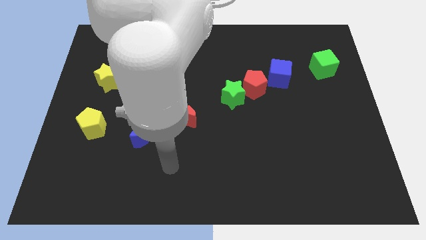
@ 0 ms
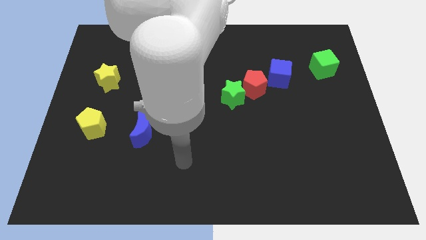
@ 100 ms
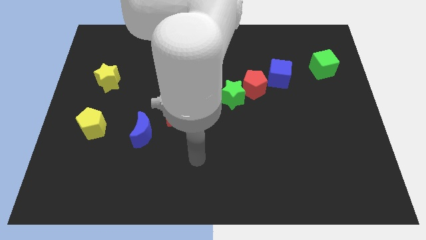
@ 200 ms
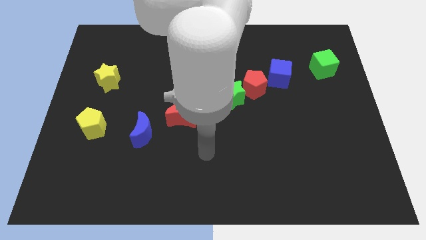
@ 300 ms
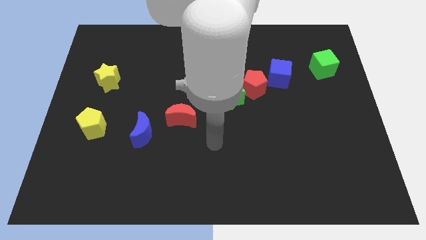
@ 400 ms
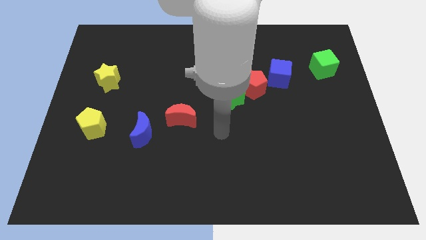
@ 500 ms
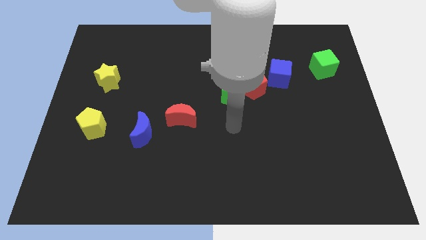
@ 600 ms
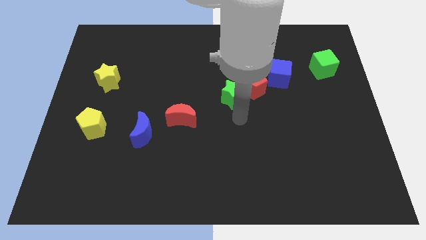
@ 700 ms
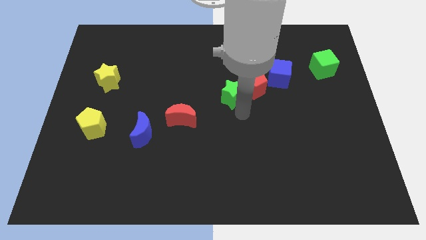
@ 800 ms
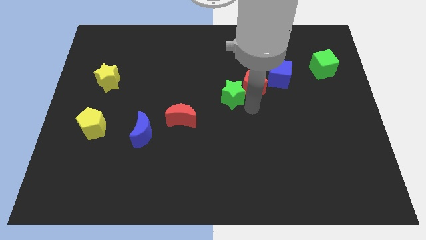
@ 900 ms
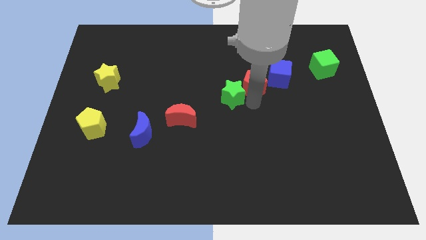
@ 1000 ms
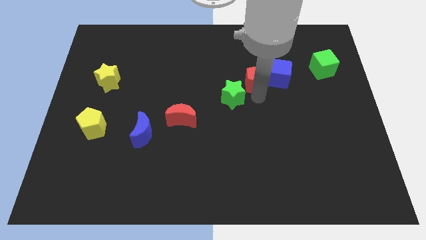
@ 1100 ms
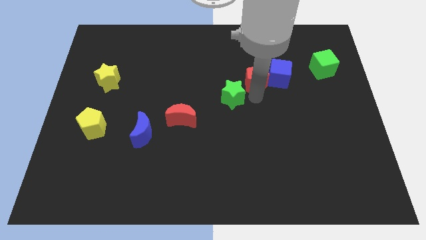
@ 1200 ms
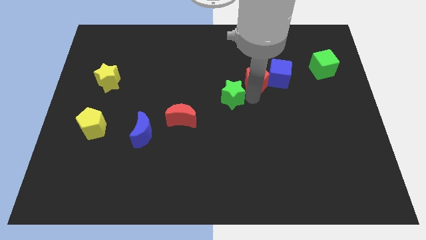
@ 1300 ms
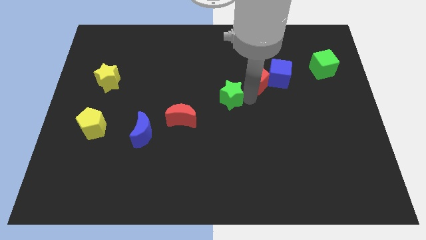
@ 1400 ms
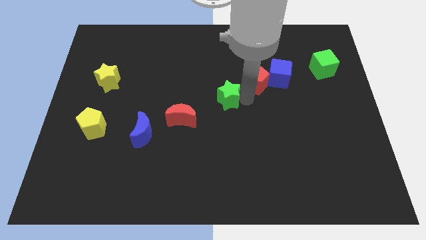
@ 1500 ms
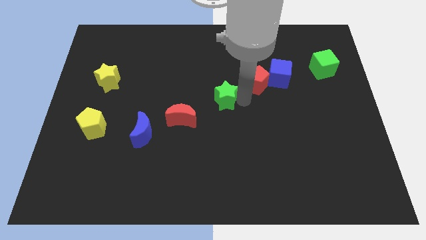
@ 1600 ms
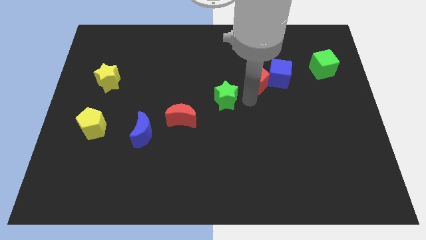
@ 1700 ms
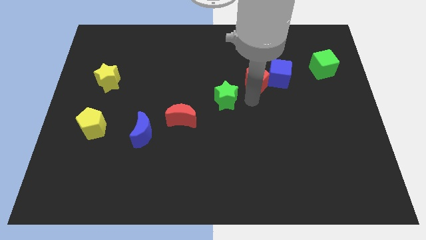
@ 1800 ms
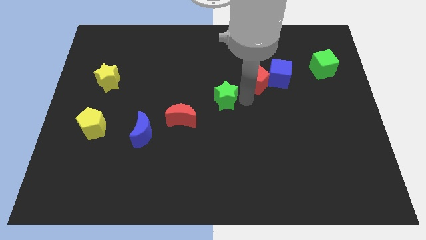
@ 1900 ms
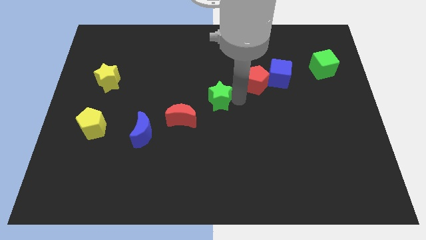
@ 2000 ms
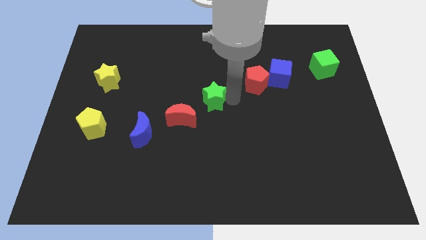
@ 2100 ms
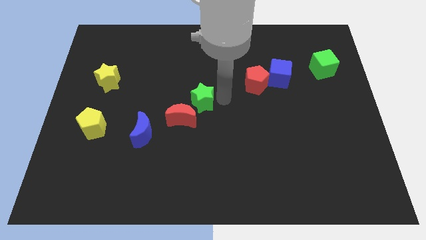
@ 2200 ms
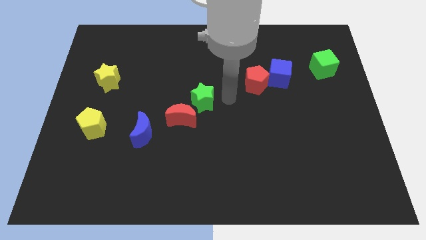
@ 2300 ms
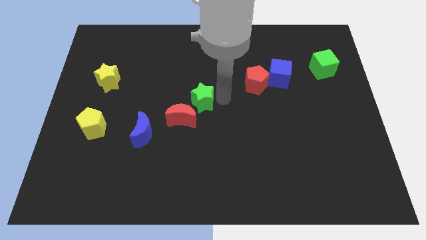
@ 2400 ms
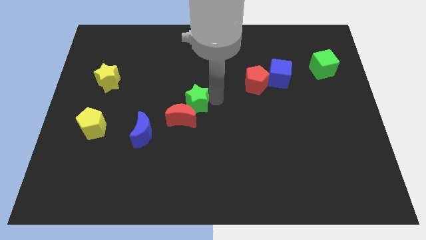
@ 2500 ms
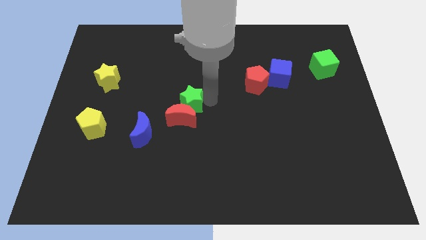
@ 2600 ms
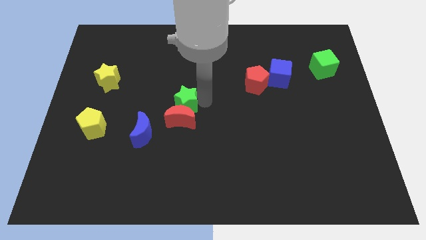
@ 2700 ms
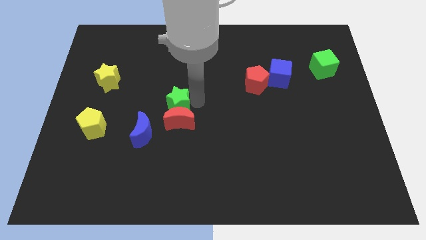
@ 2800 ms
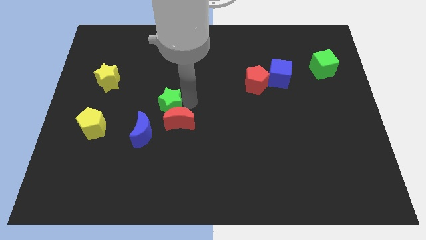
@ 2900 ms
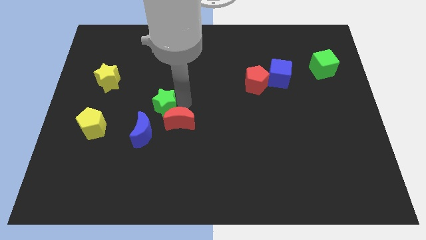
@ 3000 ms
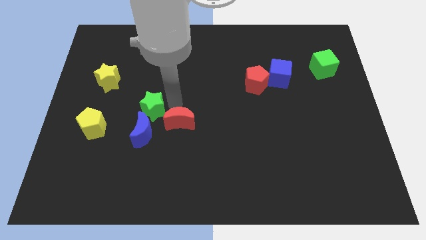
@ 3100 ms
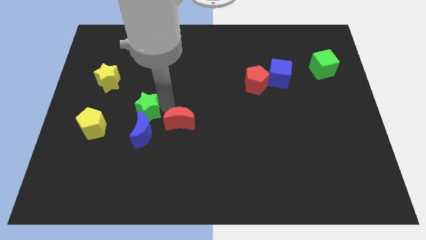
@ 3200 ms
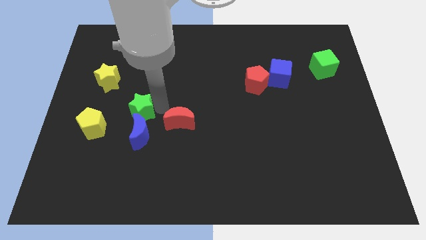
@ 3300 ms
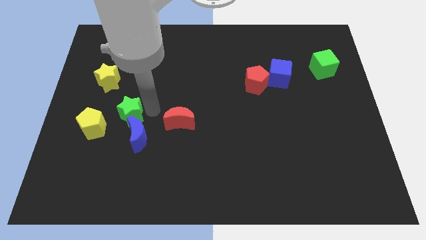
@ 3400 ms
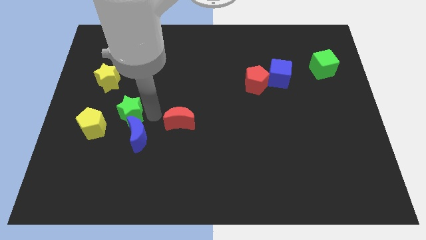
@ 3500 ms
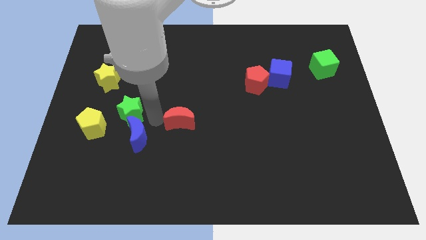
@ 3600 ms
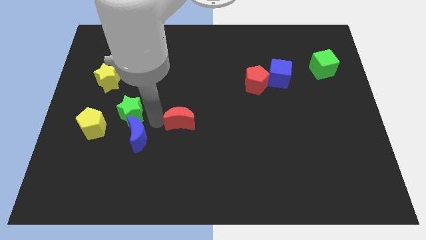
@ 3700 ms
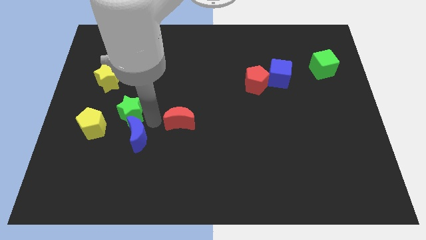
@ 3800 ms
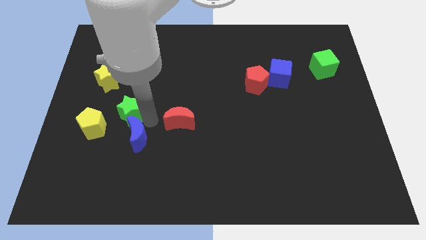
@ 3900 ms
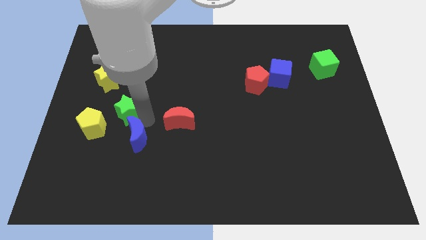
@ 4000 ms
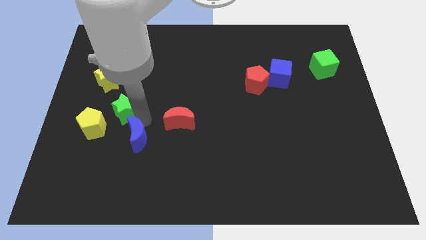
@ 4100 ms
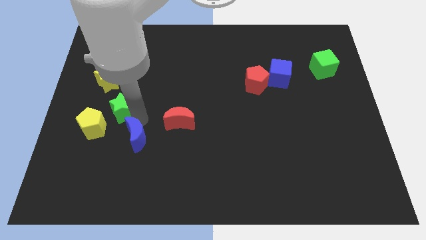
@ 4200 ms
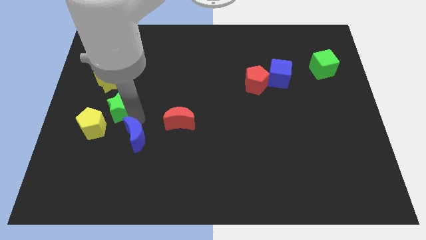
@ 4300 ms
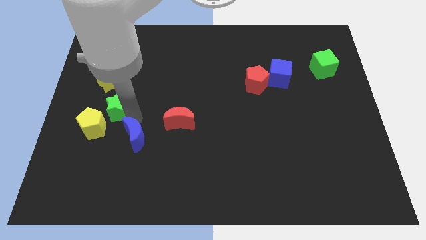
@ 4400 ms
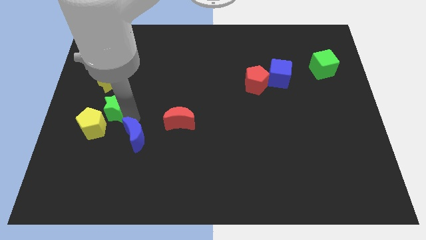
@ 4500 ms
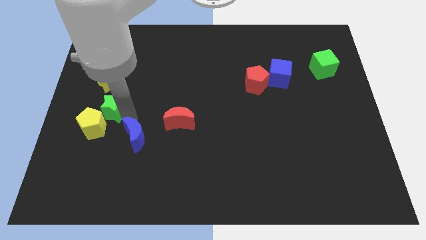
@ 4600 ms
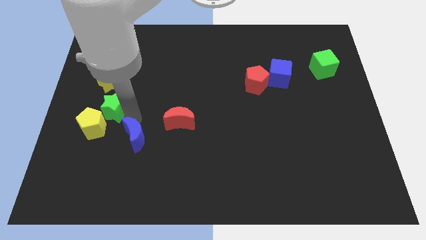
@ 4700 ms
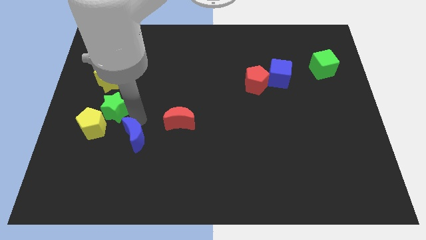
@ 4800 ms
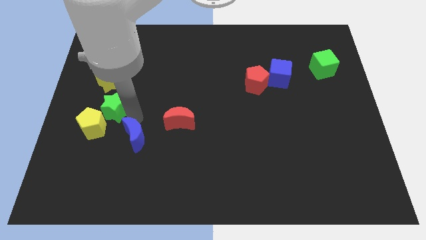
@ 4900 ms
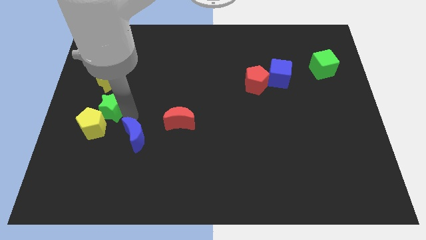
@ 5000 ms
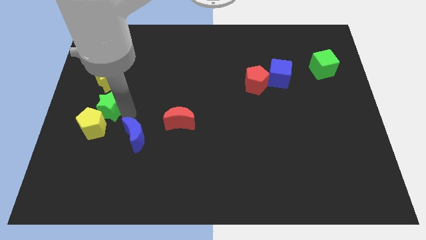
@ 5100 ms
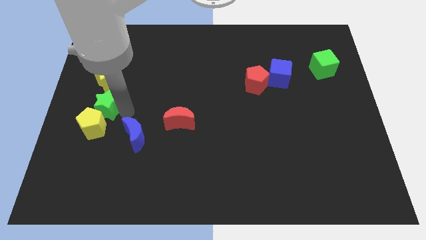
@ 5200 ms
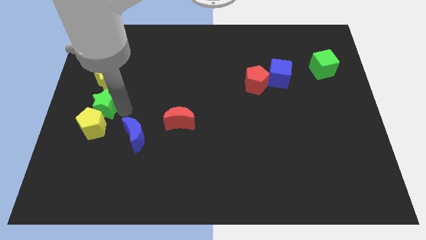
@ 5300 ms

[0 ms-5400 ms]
put the green star to the left side

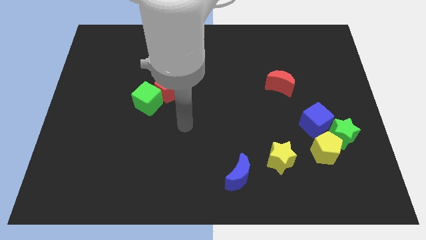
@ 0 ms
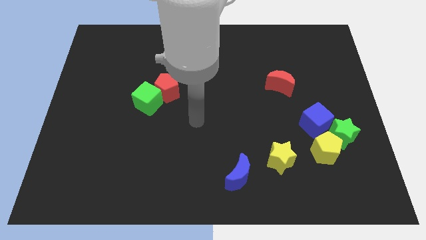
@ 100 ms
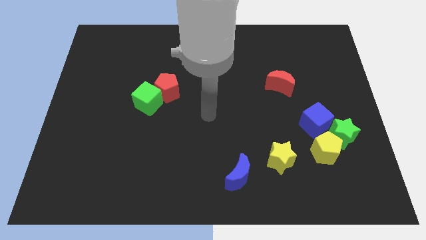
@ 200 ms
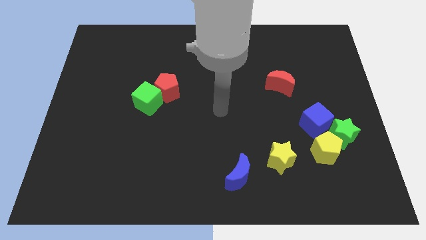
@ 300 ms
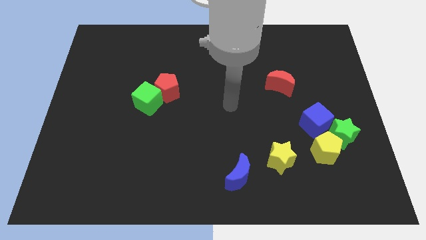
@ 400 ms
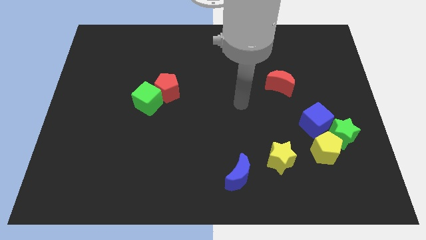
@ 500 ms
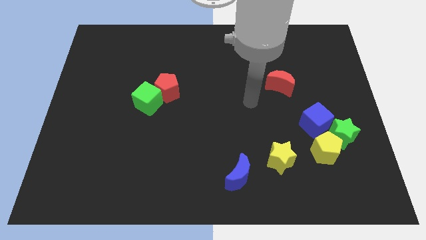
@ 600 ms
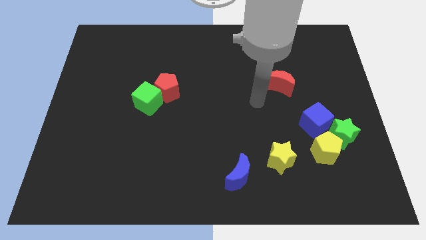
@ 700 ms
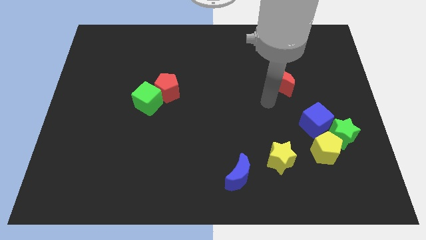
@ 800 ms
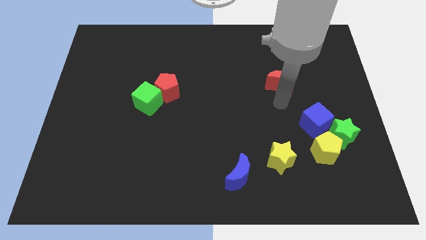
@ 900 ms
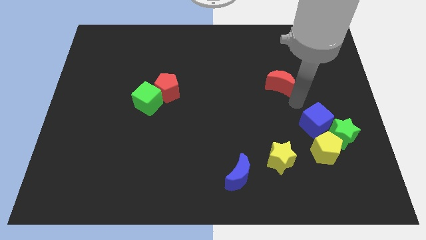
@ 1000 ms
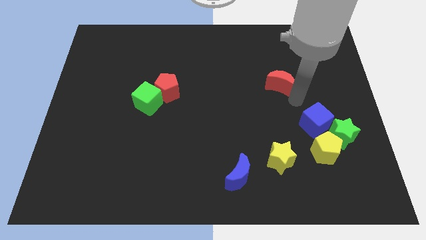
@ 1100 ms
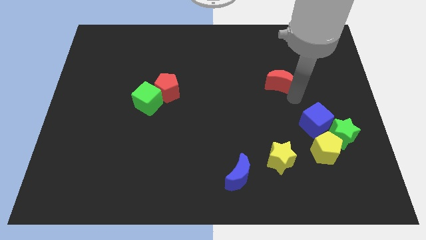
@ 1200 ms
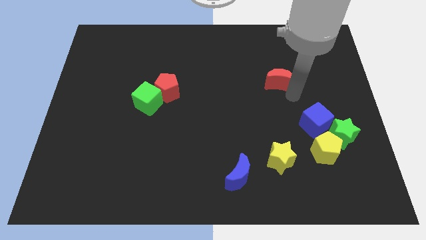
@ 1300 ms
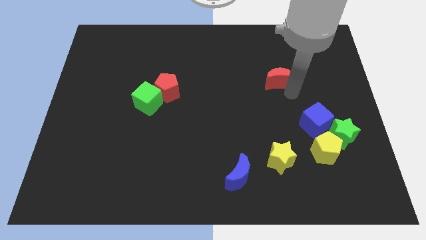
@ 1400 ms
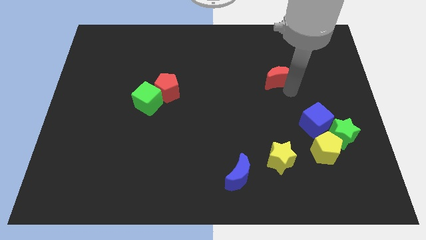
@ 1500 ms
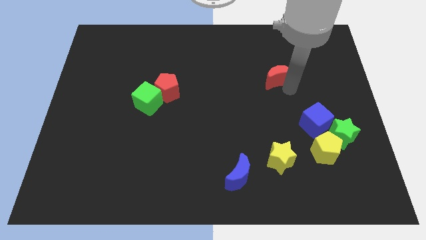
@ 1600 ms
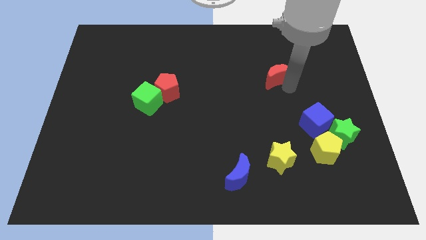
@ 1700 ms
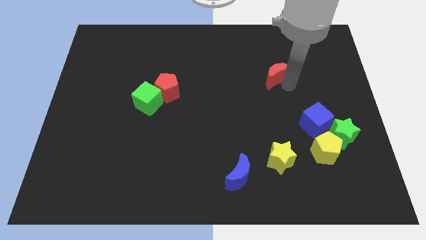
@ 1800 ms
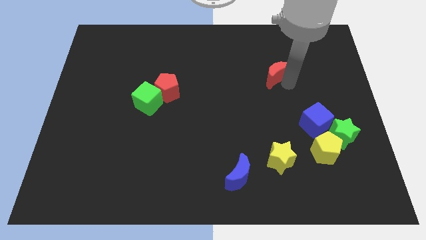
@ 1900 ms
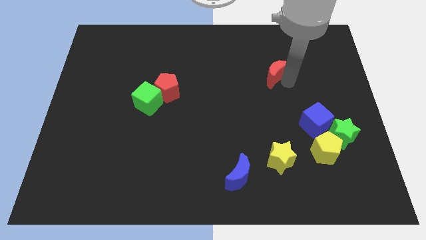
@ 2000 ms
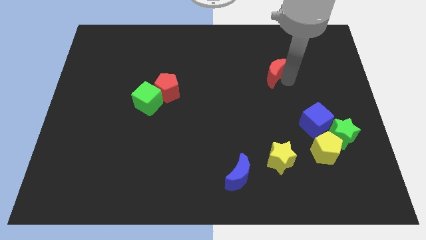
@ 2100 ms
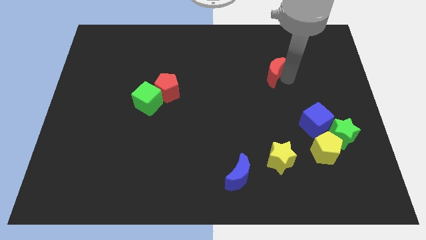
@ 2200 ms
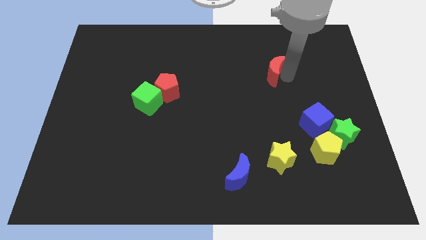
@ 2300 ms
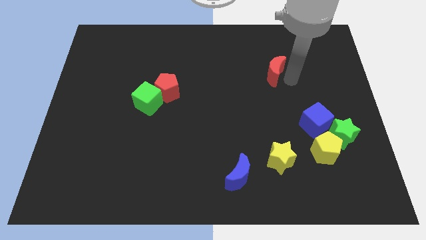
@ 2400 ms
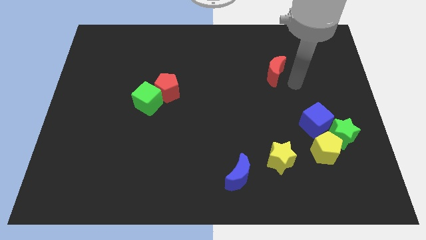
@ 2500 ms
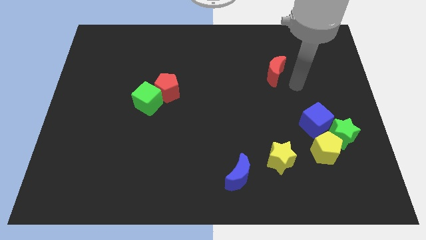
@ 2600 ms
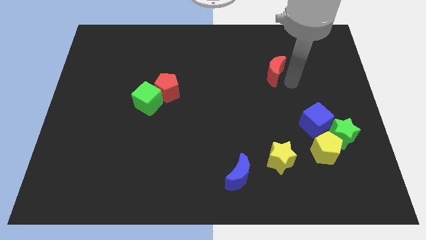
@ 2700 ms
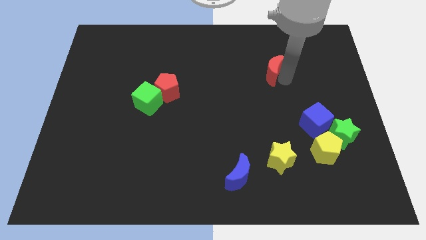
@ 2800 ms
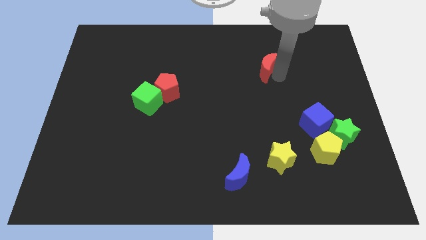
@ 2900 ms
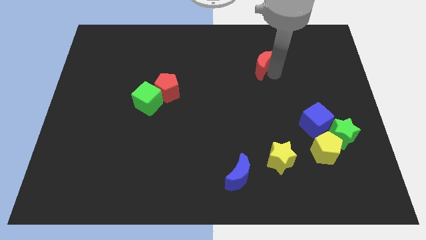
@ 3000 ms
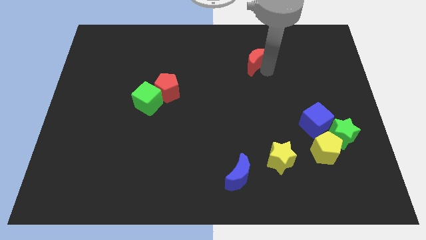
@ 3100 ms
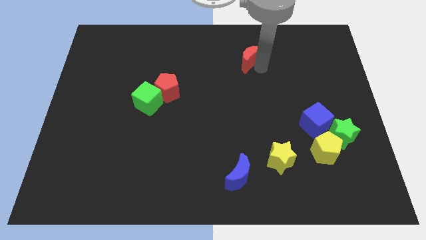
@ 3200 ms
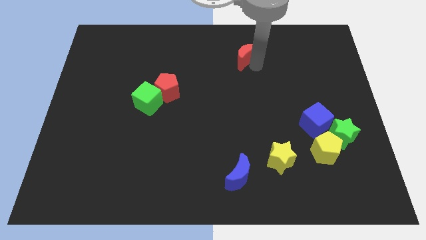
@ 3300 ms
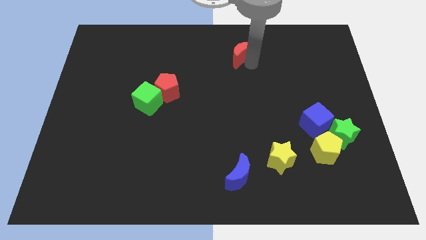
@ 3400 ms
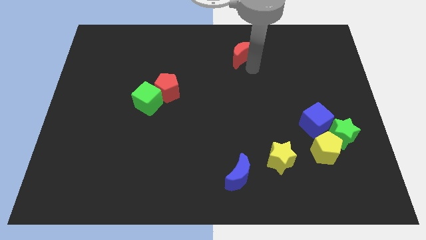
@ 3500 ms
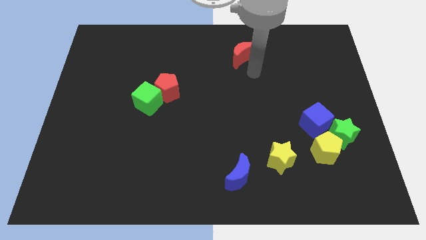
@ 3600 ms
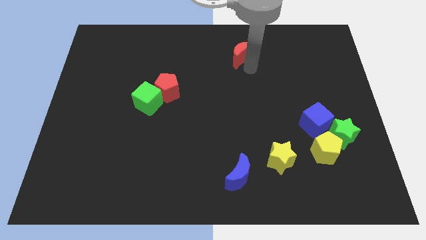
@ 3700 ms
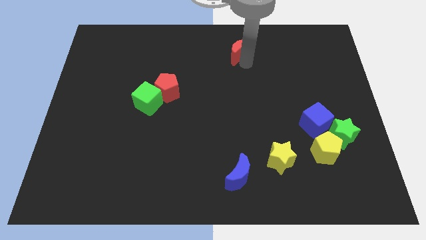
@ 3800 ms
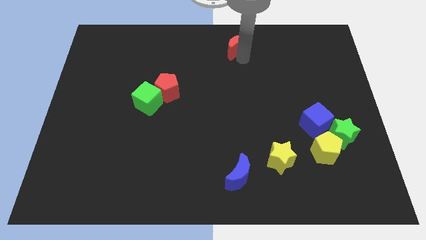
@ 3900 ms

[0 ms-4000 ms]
slide the red moon to the top side
